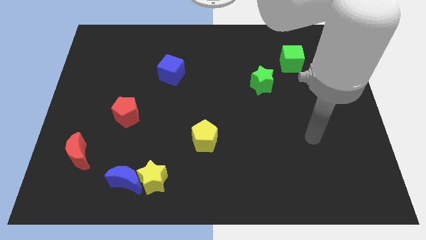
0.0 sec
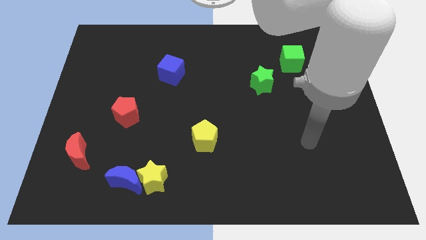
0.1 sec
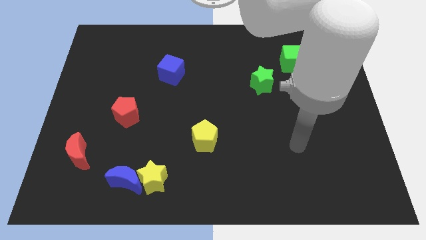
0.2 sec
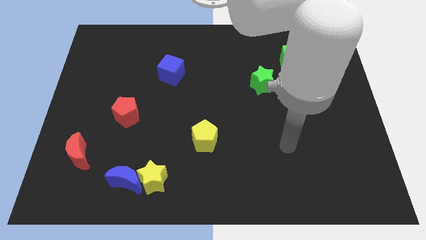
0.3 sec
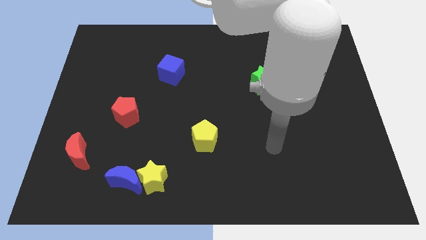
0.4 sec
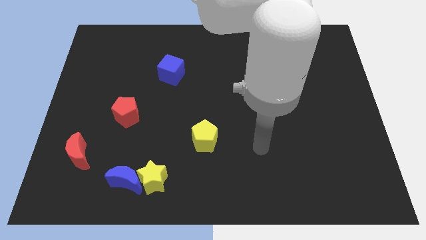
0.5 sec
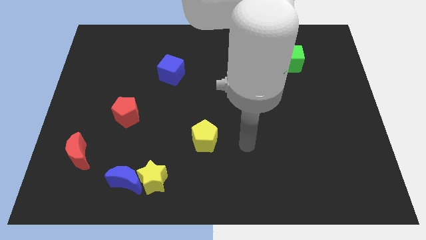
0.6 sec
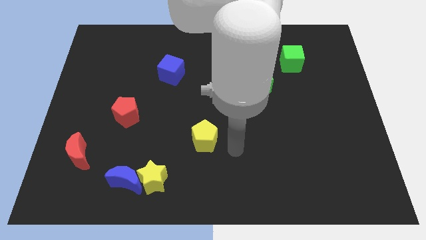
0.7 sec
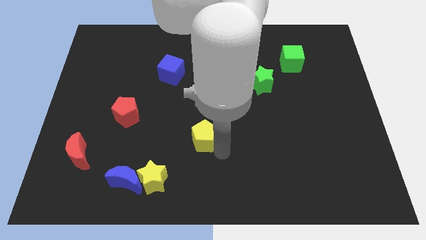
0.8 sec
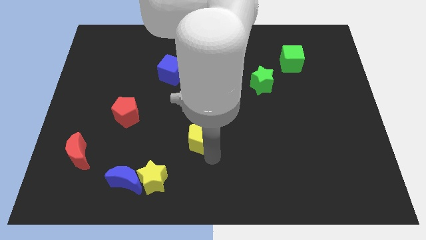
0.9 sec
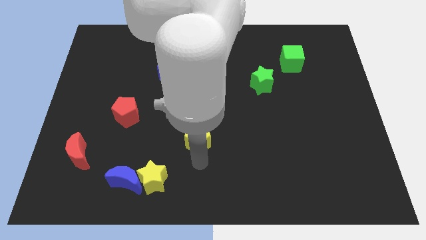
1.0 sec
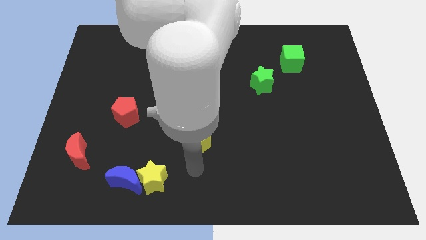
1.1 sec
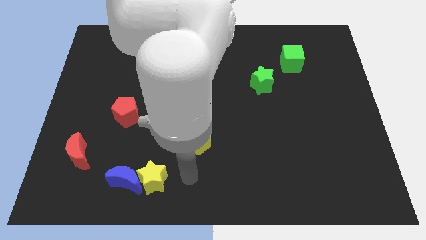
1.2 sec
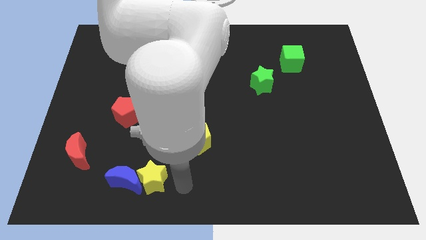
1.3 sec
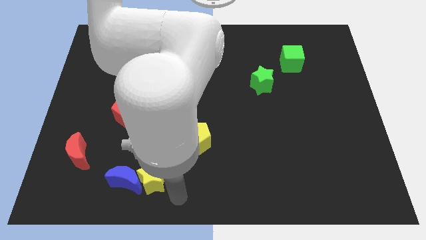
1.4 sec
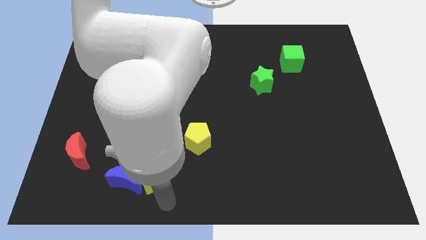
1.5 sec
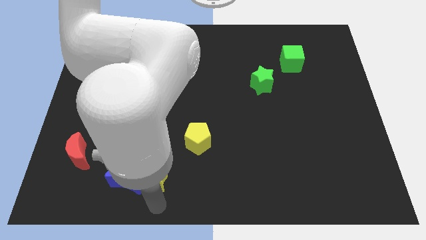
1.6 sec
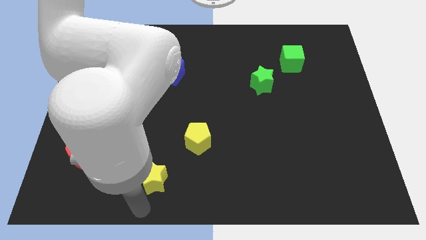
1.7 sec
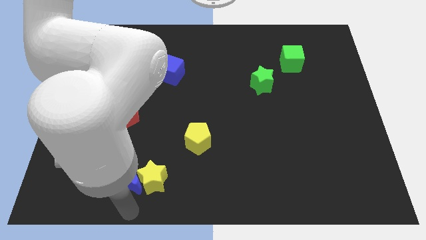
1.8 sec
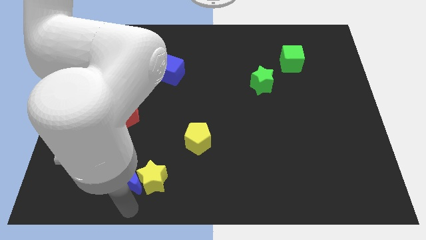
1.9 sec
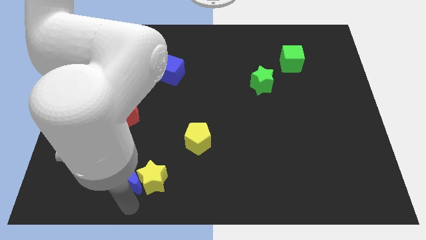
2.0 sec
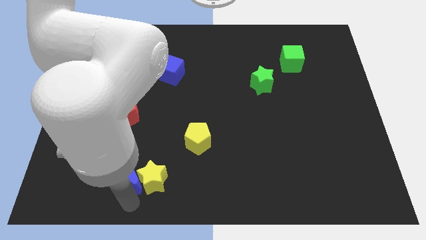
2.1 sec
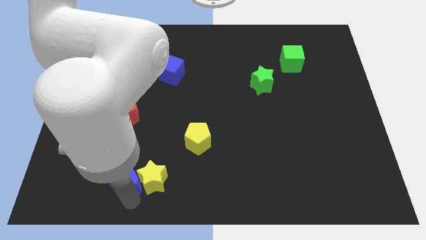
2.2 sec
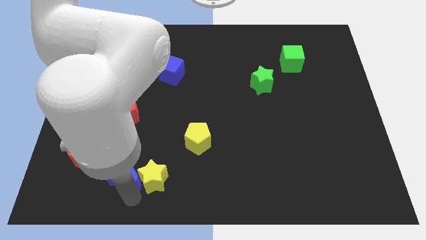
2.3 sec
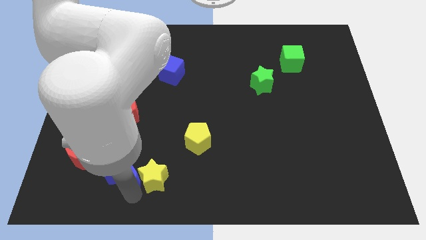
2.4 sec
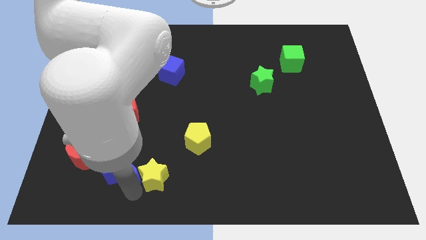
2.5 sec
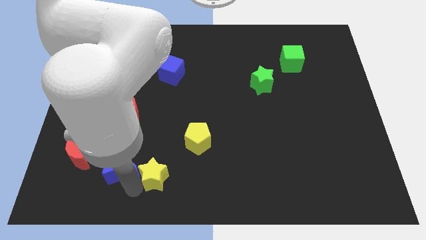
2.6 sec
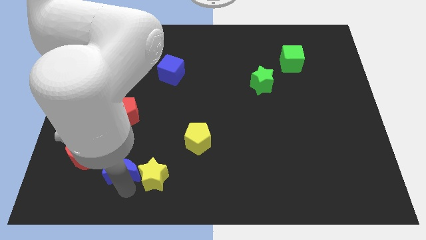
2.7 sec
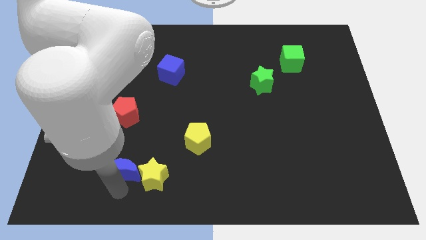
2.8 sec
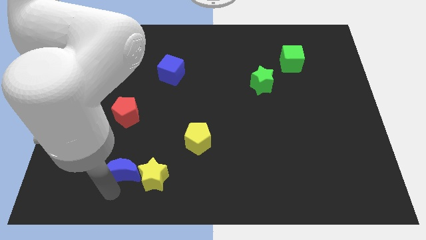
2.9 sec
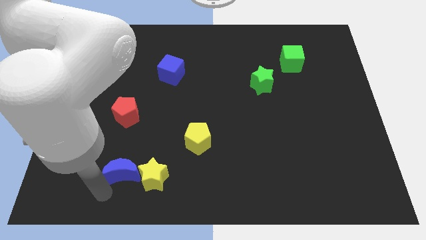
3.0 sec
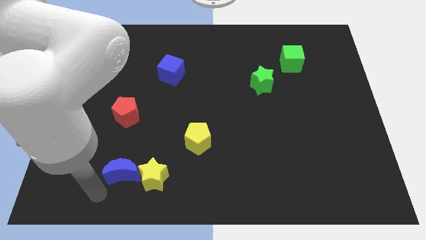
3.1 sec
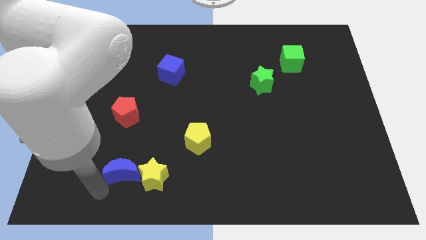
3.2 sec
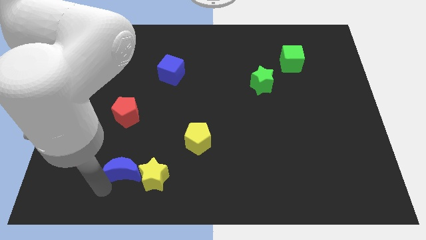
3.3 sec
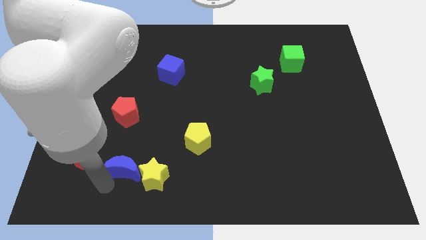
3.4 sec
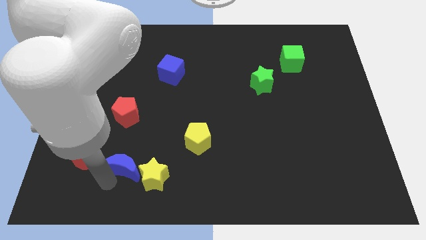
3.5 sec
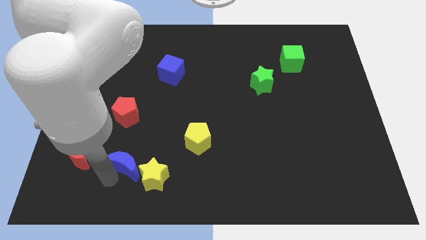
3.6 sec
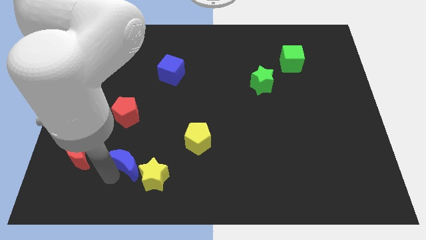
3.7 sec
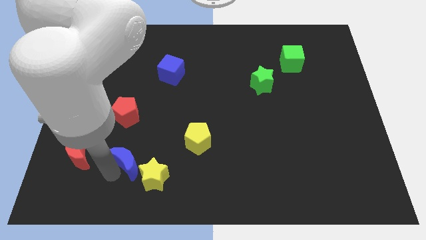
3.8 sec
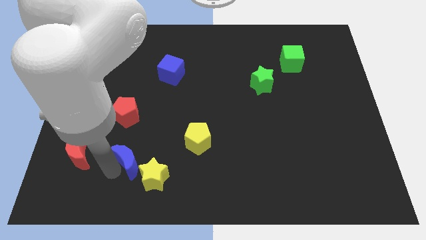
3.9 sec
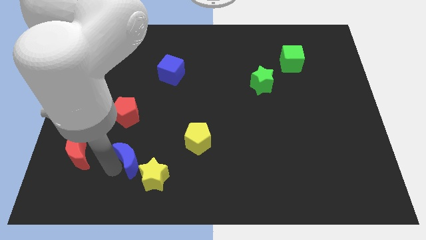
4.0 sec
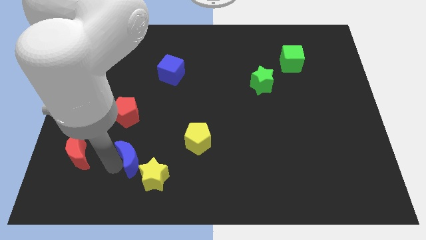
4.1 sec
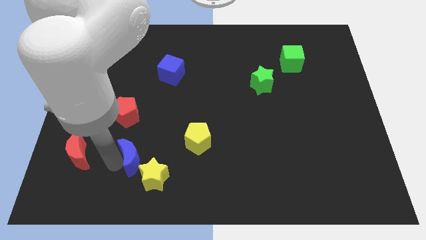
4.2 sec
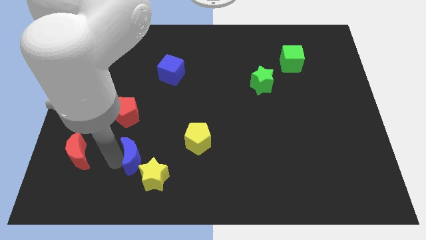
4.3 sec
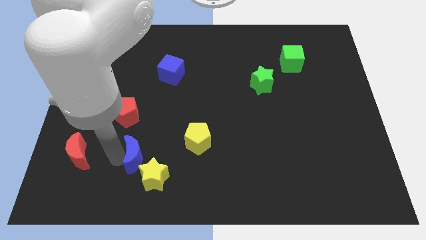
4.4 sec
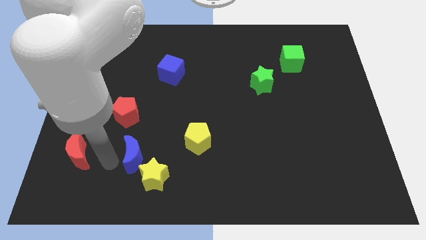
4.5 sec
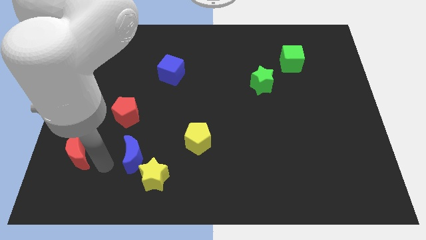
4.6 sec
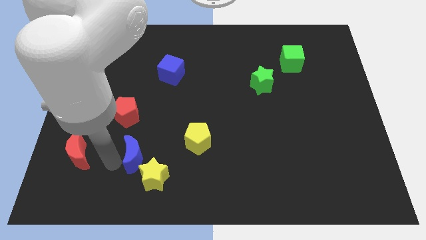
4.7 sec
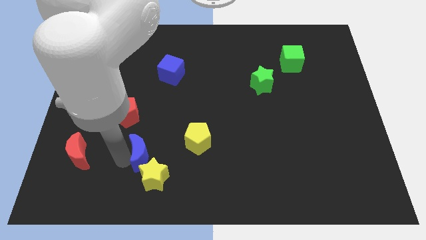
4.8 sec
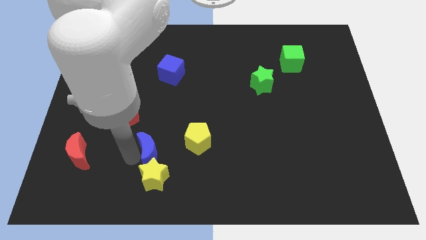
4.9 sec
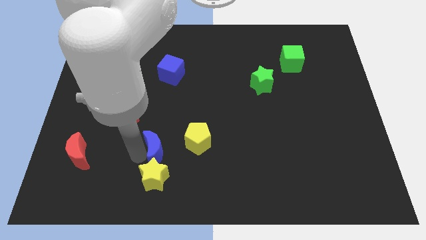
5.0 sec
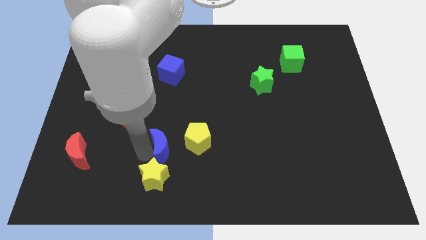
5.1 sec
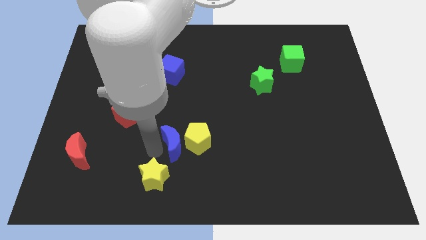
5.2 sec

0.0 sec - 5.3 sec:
move the blue moon towards the yellow pentagon

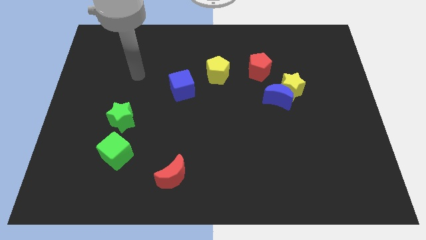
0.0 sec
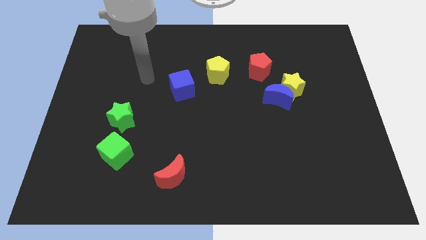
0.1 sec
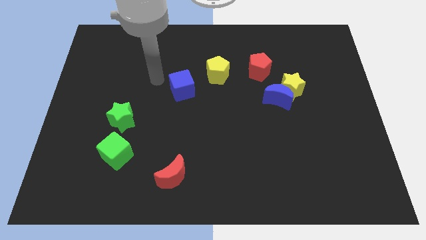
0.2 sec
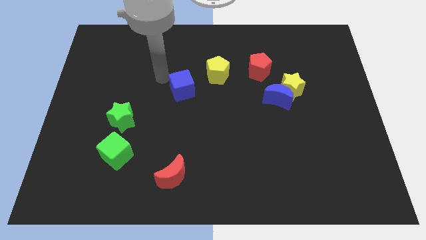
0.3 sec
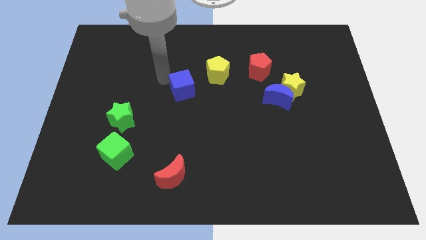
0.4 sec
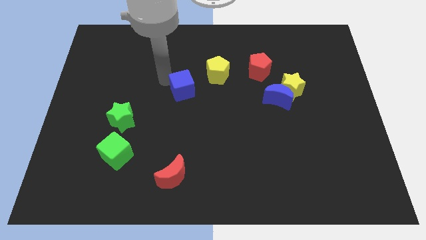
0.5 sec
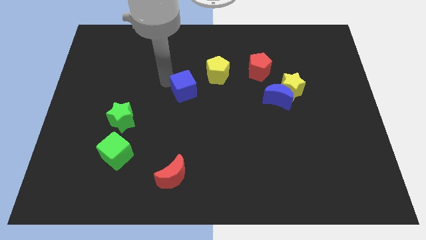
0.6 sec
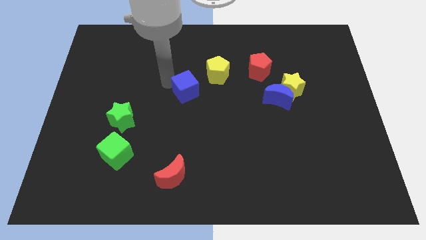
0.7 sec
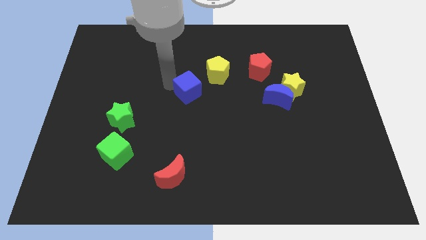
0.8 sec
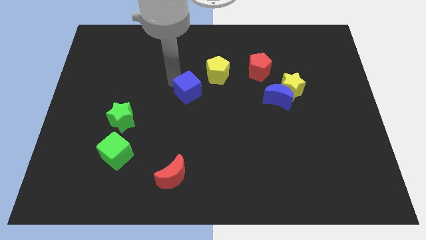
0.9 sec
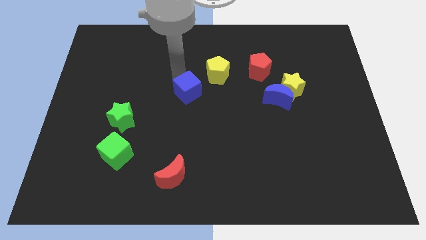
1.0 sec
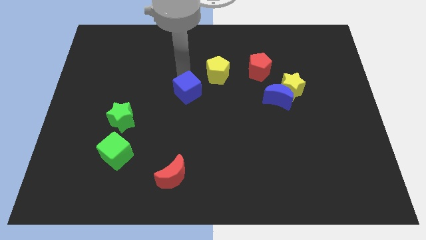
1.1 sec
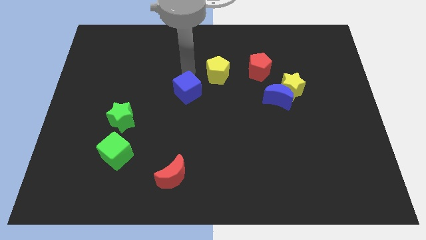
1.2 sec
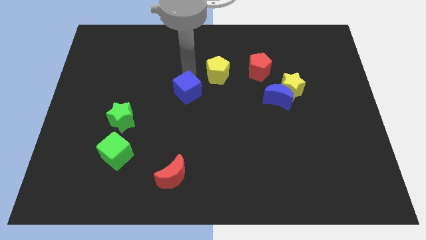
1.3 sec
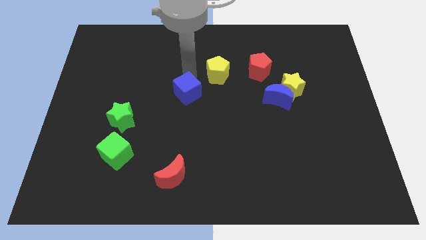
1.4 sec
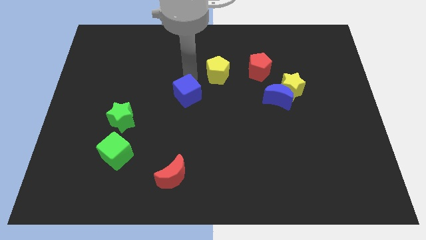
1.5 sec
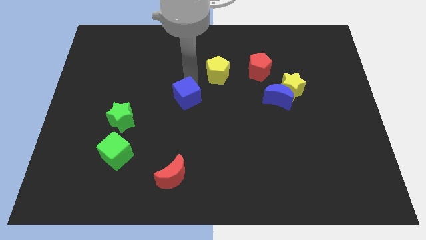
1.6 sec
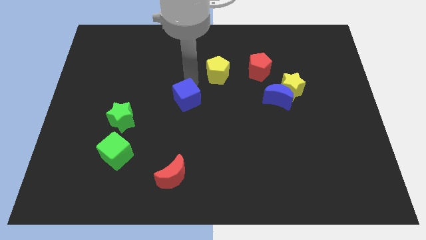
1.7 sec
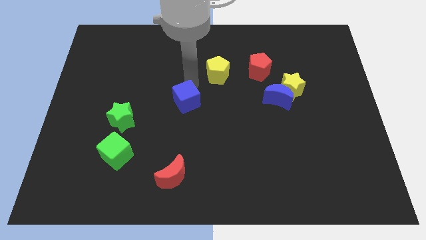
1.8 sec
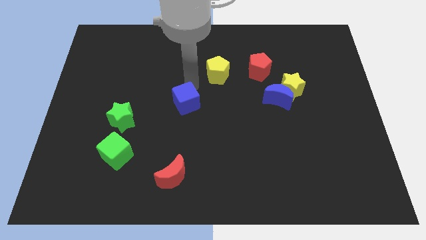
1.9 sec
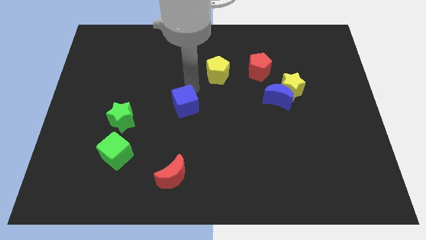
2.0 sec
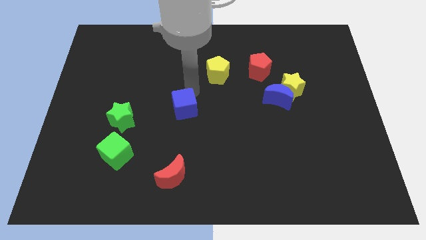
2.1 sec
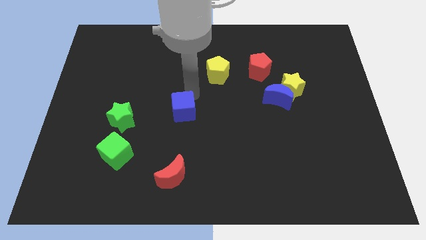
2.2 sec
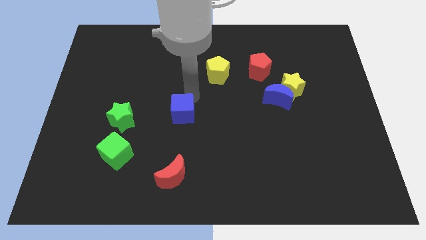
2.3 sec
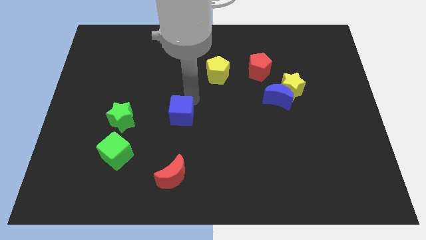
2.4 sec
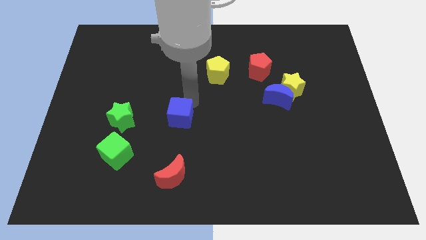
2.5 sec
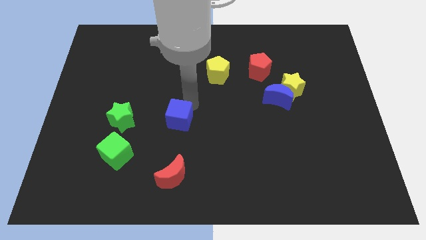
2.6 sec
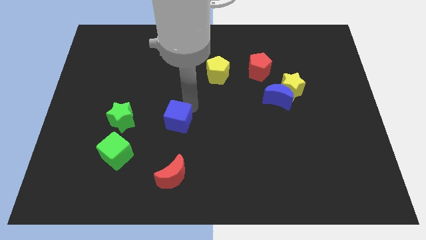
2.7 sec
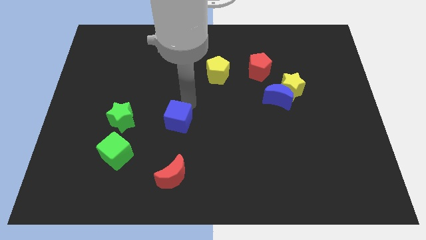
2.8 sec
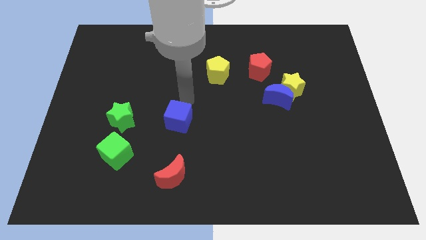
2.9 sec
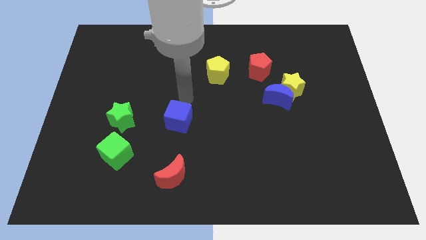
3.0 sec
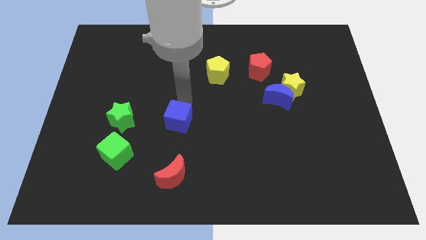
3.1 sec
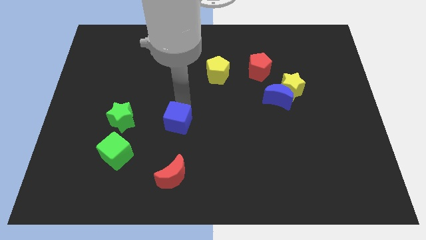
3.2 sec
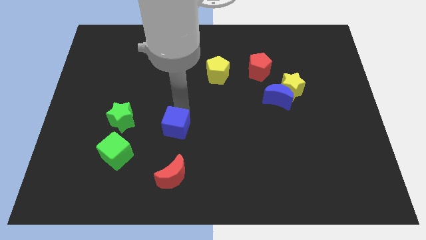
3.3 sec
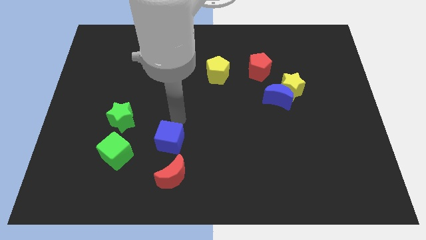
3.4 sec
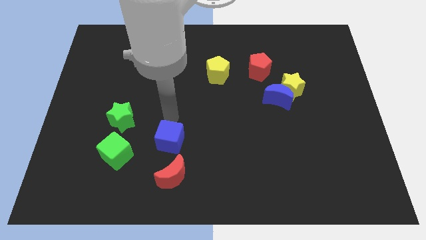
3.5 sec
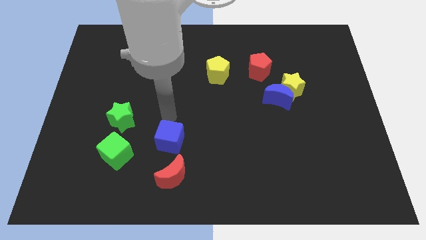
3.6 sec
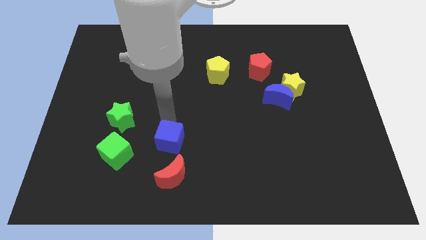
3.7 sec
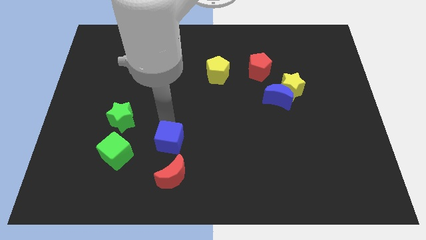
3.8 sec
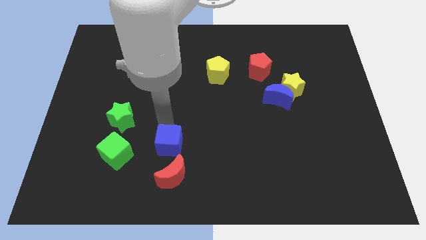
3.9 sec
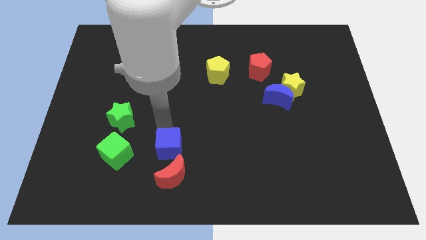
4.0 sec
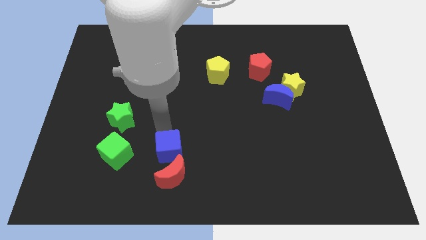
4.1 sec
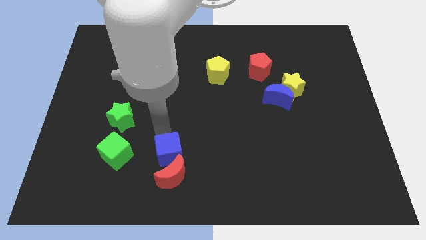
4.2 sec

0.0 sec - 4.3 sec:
slide the blue cube to the red moon
